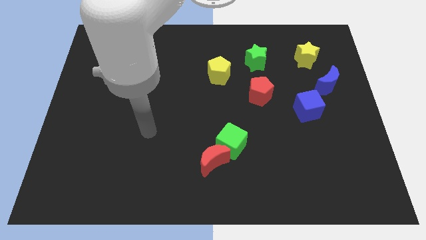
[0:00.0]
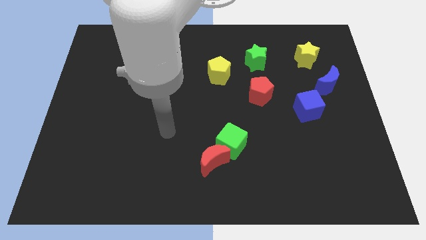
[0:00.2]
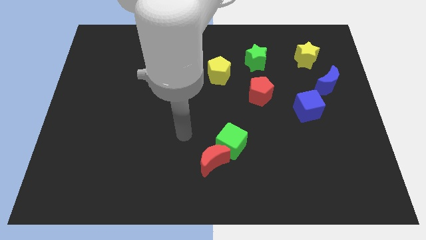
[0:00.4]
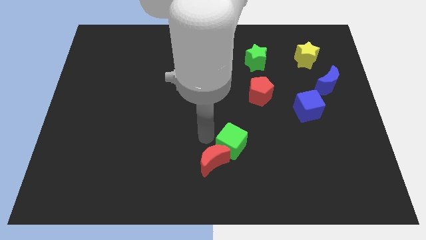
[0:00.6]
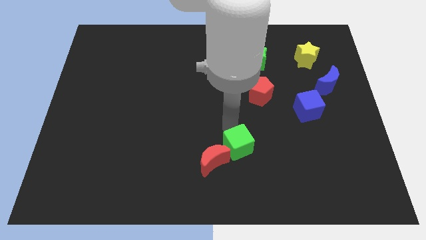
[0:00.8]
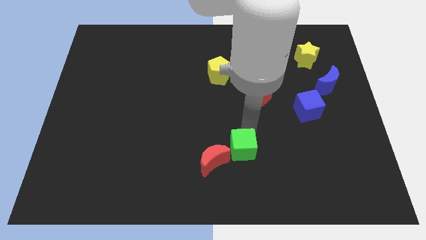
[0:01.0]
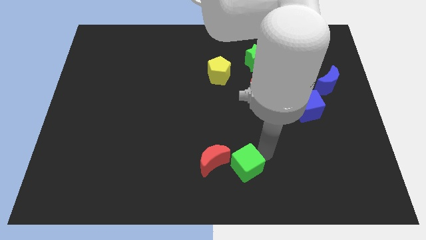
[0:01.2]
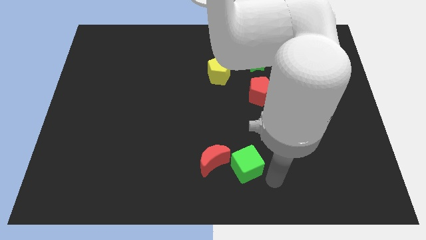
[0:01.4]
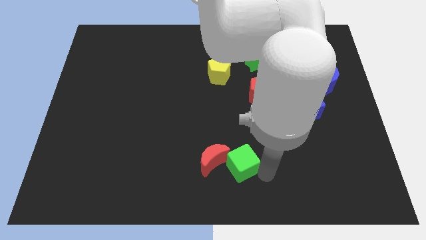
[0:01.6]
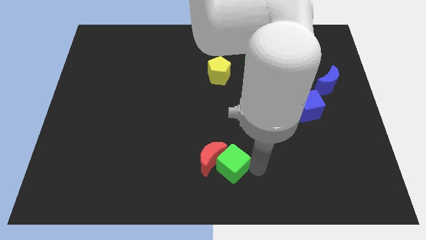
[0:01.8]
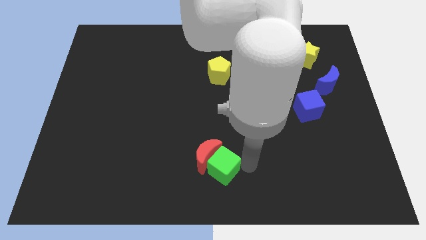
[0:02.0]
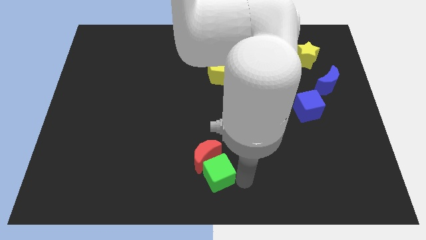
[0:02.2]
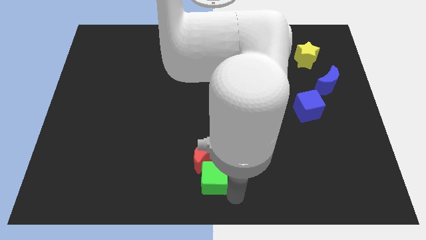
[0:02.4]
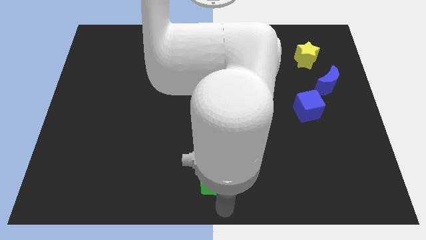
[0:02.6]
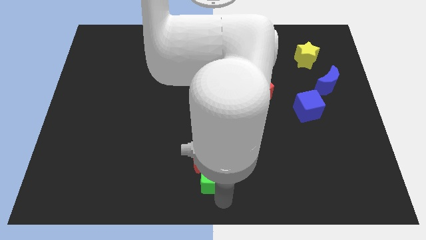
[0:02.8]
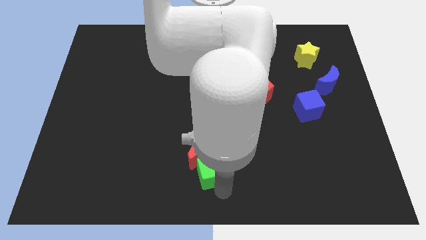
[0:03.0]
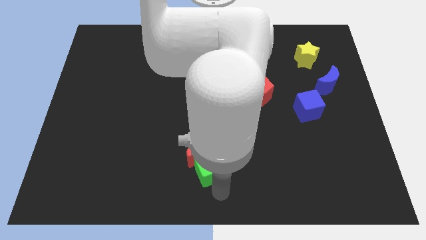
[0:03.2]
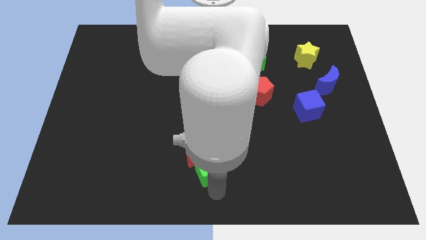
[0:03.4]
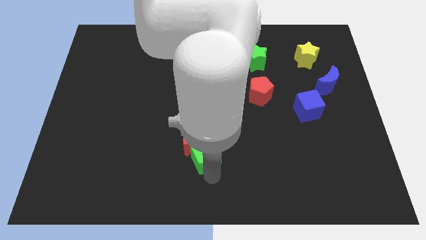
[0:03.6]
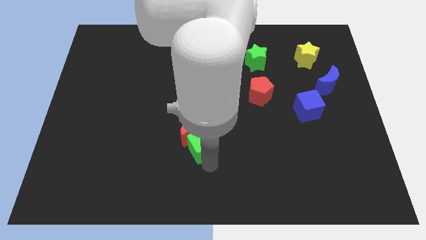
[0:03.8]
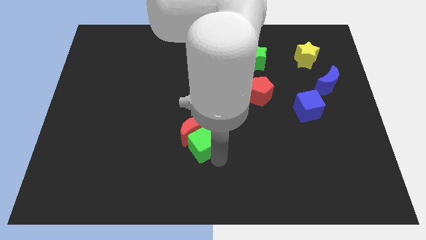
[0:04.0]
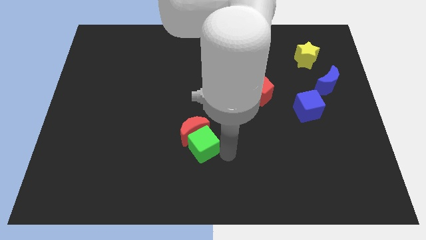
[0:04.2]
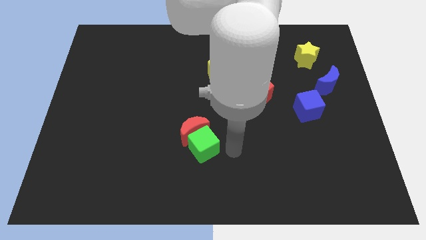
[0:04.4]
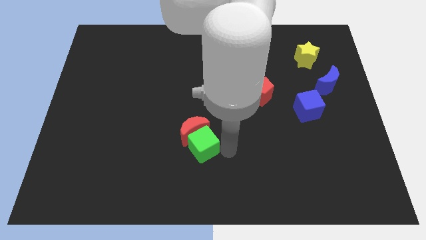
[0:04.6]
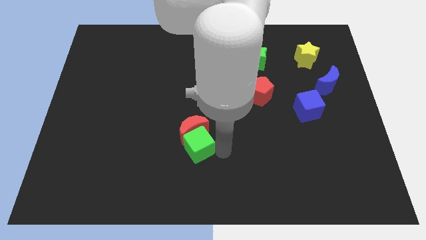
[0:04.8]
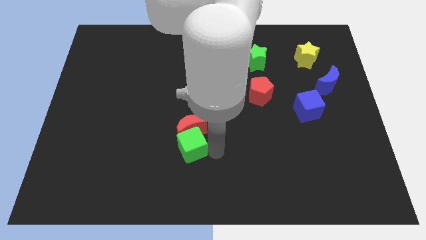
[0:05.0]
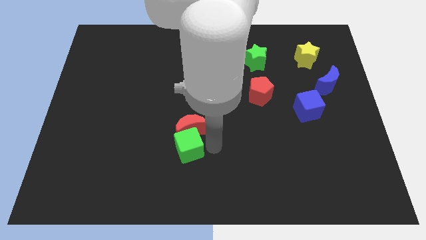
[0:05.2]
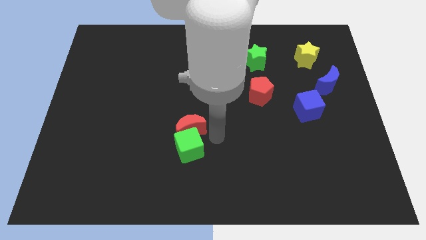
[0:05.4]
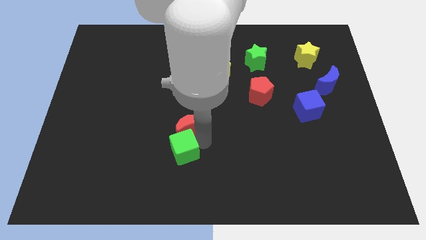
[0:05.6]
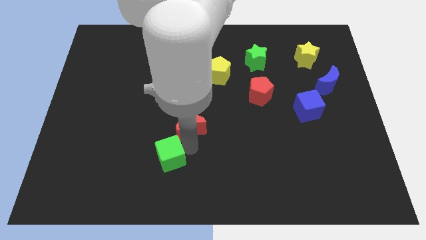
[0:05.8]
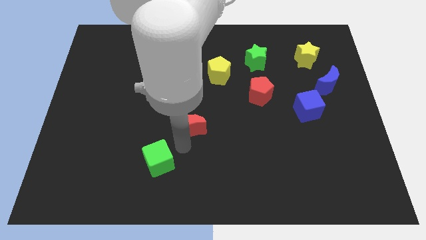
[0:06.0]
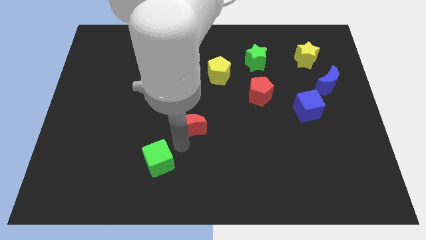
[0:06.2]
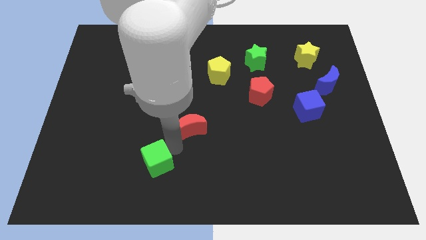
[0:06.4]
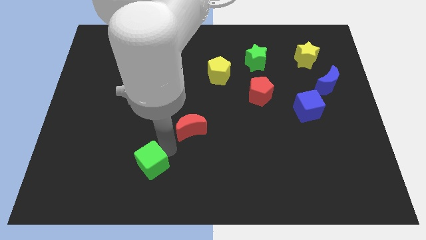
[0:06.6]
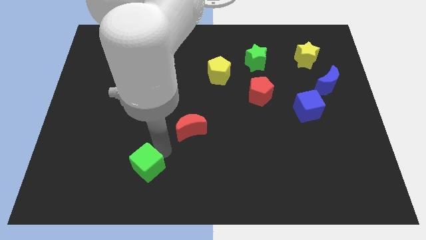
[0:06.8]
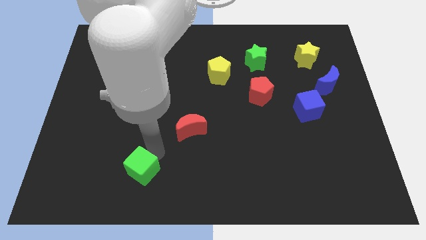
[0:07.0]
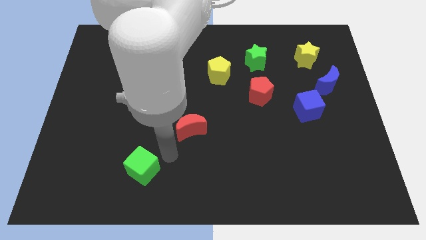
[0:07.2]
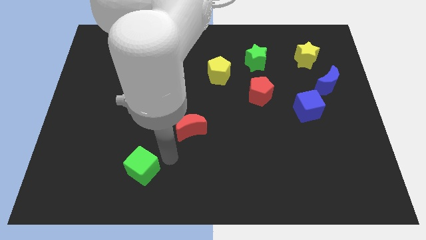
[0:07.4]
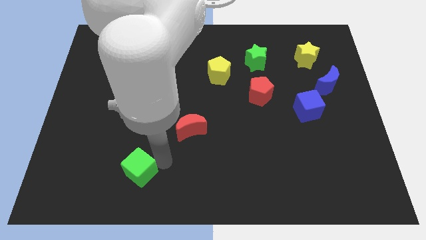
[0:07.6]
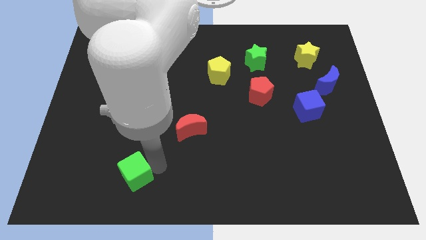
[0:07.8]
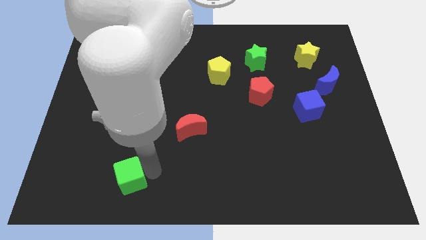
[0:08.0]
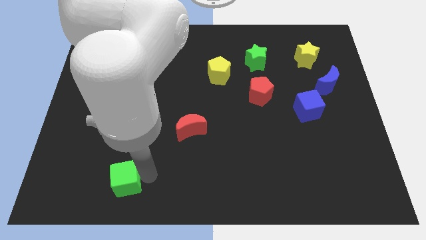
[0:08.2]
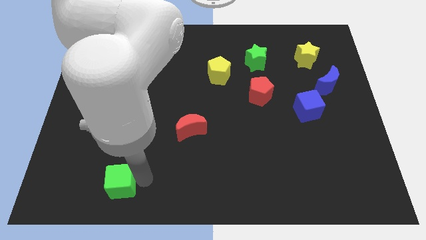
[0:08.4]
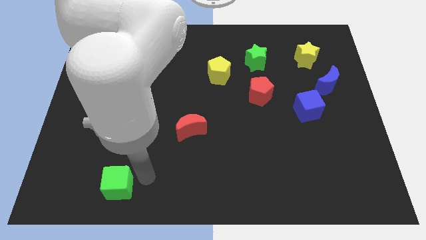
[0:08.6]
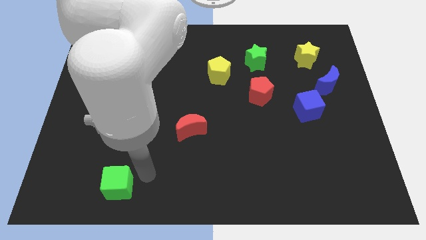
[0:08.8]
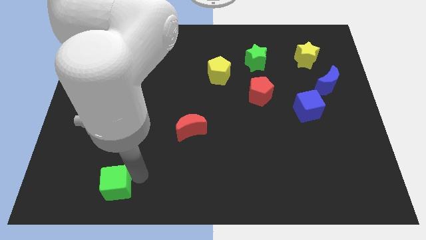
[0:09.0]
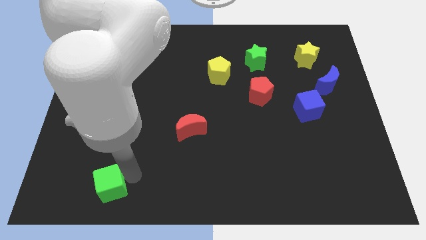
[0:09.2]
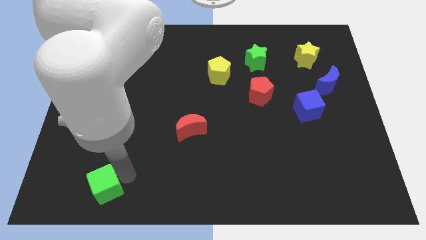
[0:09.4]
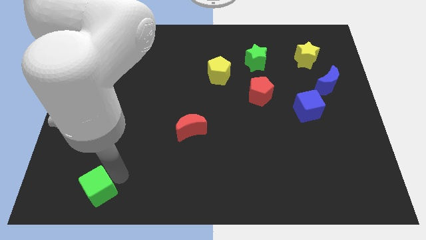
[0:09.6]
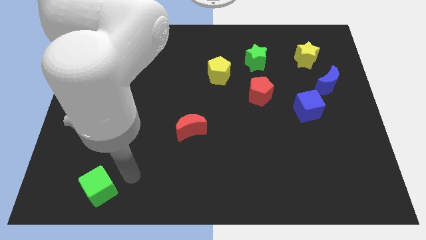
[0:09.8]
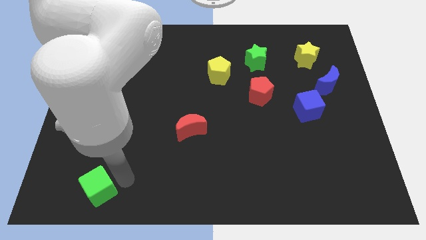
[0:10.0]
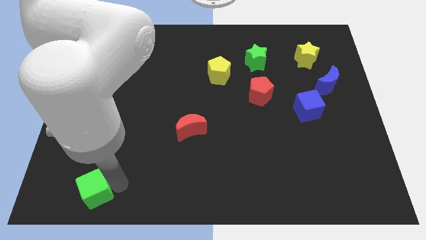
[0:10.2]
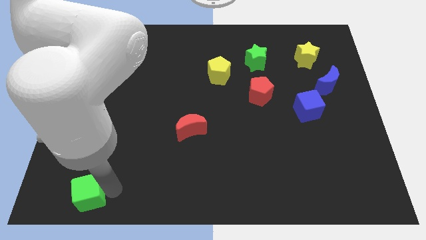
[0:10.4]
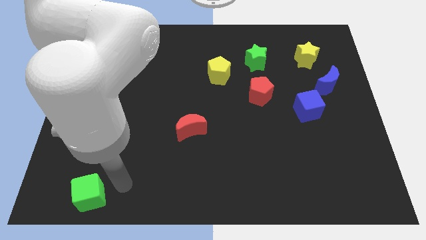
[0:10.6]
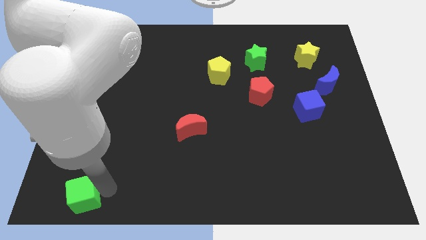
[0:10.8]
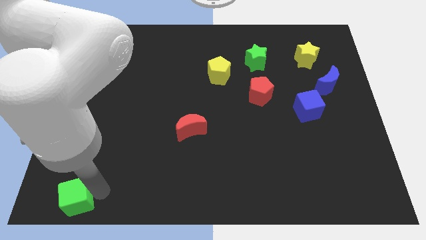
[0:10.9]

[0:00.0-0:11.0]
put the green cube to the bottom left
